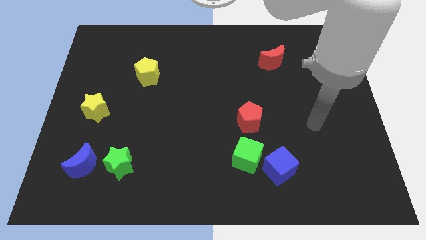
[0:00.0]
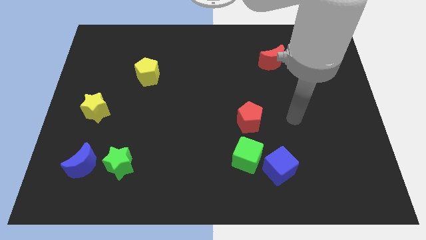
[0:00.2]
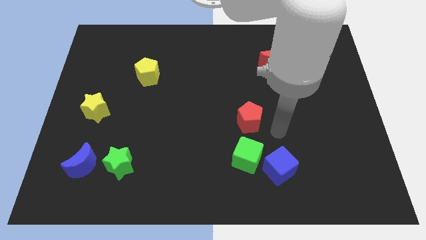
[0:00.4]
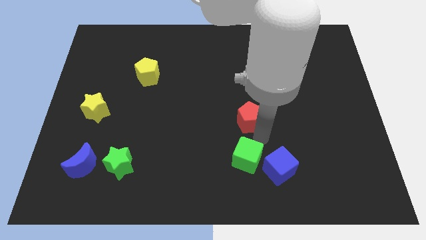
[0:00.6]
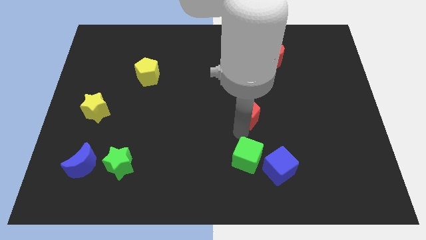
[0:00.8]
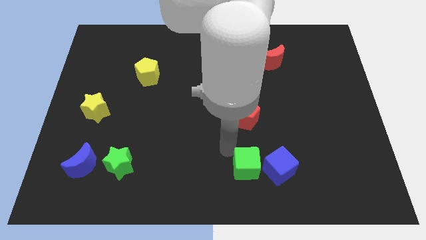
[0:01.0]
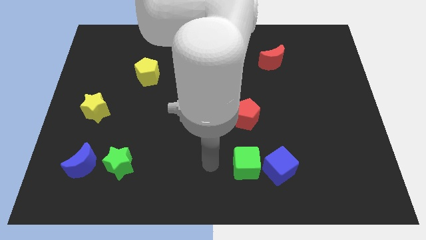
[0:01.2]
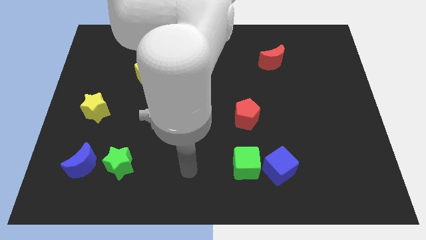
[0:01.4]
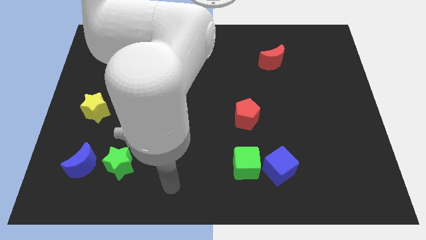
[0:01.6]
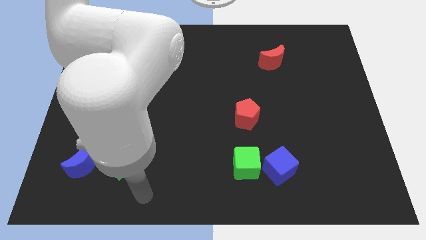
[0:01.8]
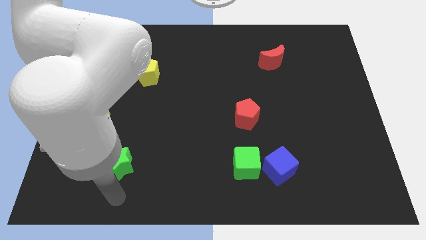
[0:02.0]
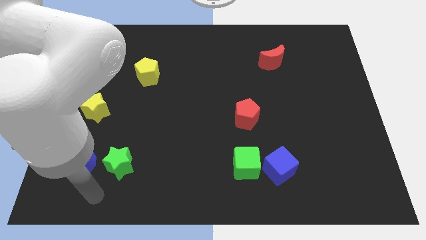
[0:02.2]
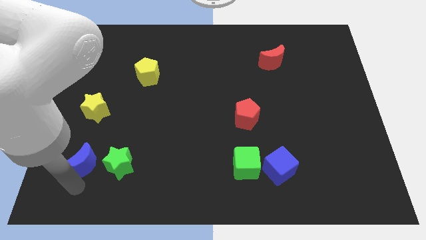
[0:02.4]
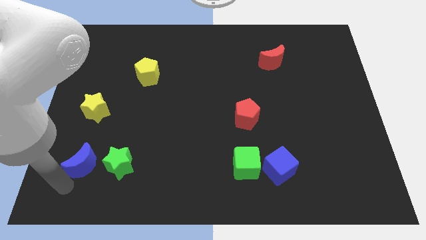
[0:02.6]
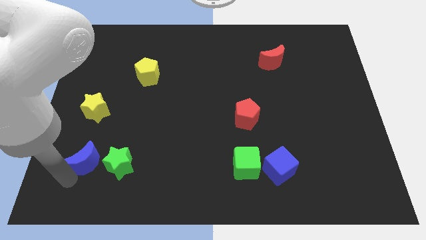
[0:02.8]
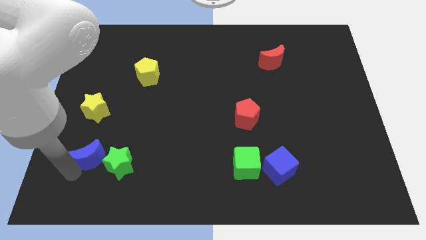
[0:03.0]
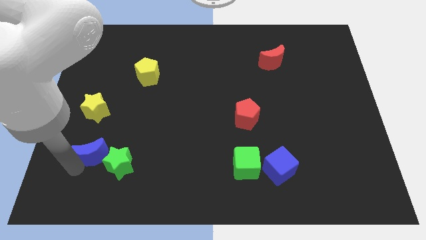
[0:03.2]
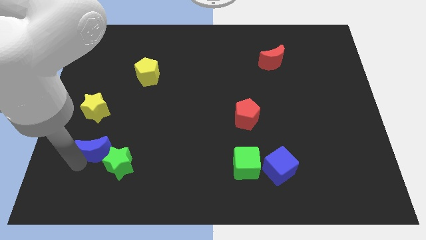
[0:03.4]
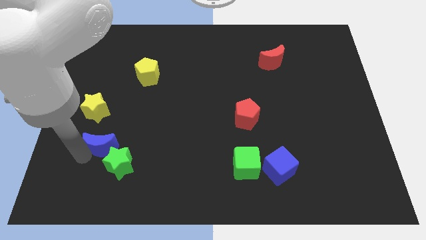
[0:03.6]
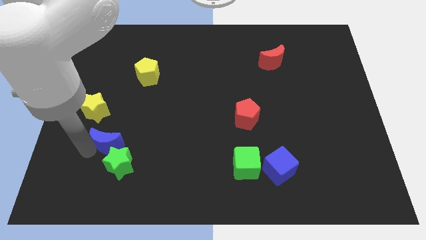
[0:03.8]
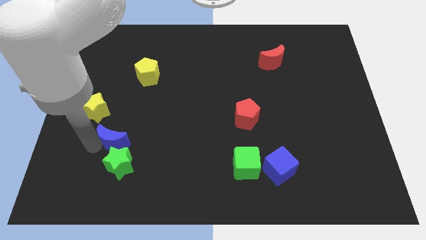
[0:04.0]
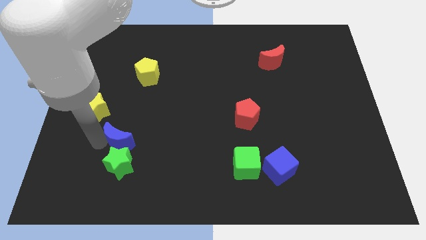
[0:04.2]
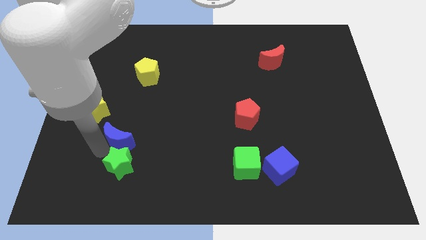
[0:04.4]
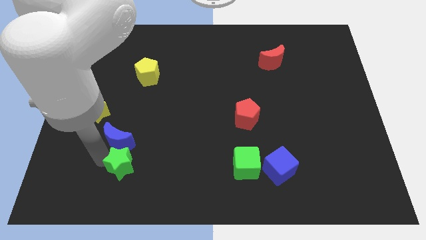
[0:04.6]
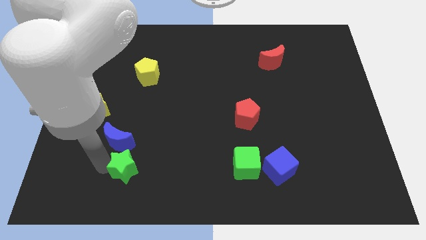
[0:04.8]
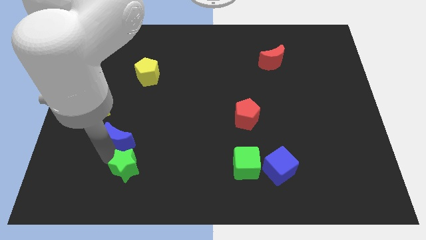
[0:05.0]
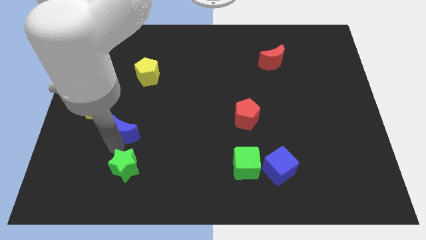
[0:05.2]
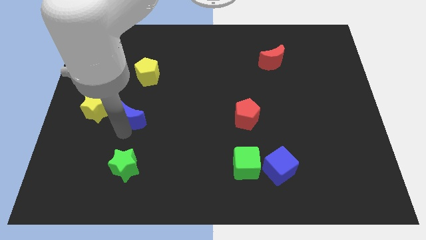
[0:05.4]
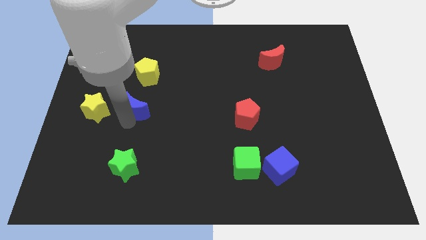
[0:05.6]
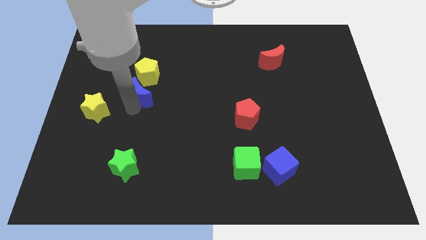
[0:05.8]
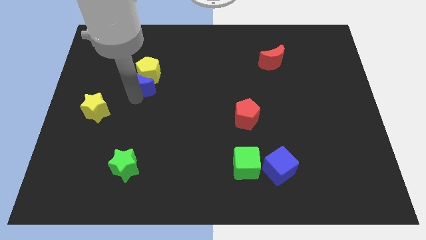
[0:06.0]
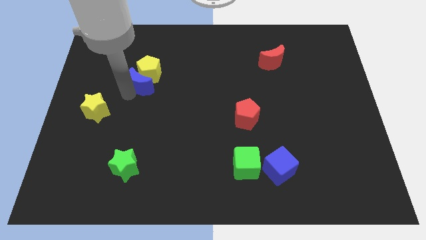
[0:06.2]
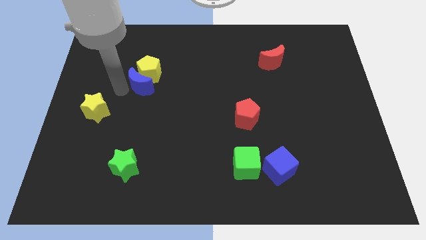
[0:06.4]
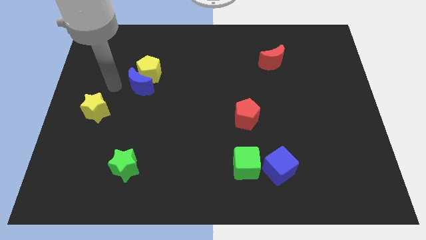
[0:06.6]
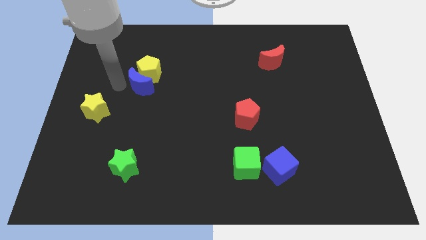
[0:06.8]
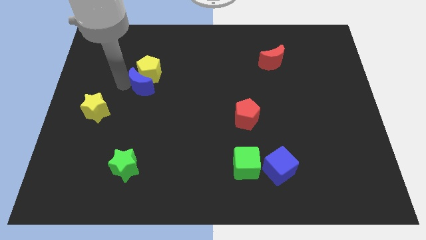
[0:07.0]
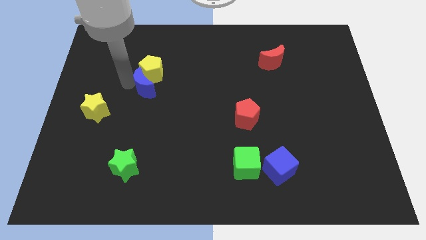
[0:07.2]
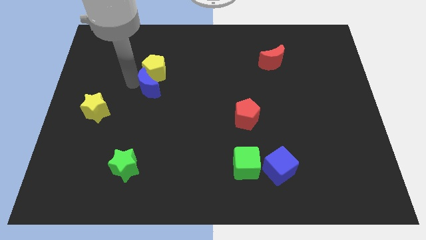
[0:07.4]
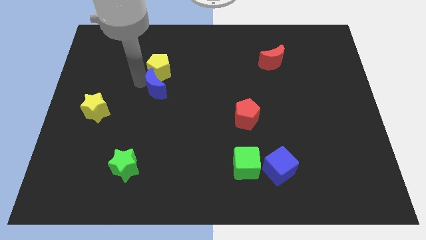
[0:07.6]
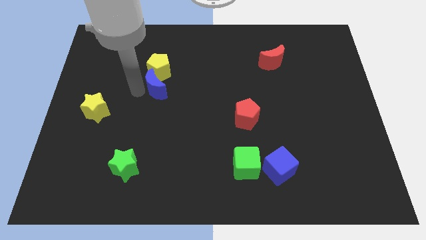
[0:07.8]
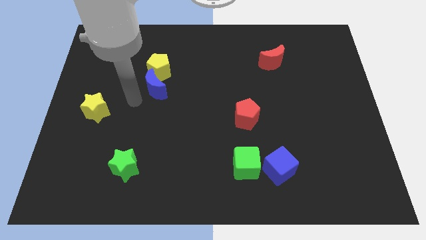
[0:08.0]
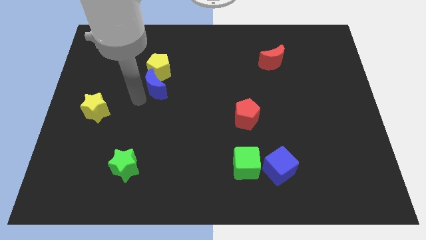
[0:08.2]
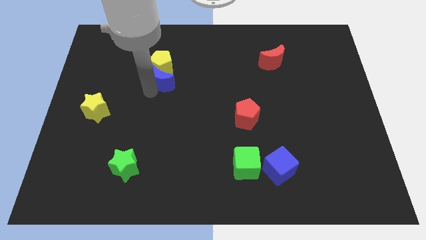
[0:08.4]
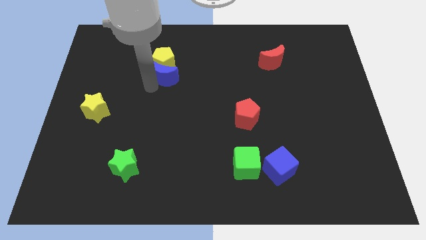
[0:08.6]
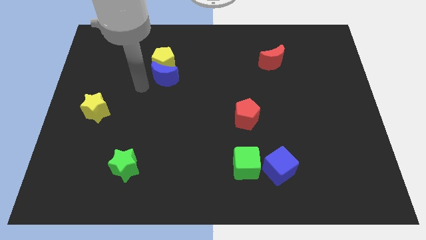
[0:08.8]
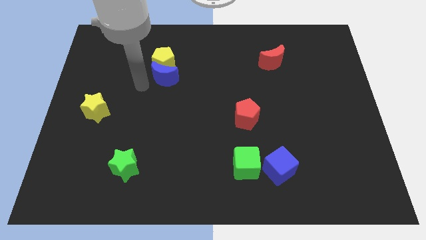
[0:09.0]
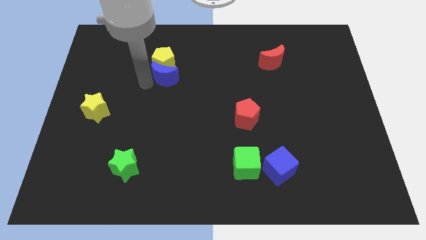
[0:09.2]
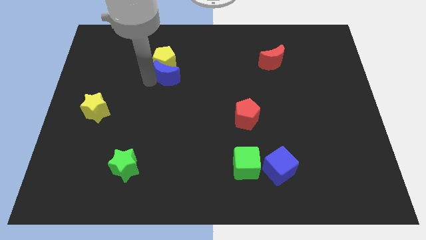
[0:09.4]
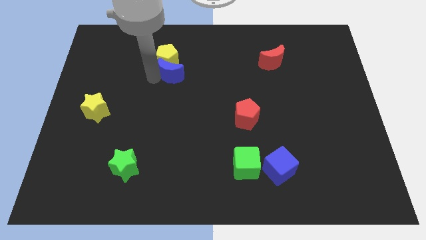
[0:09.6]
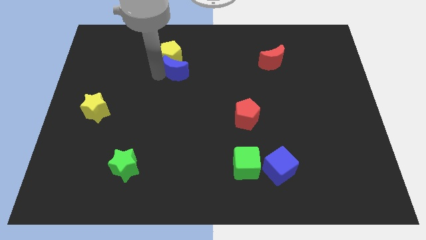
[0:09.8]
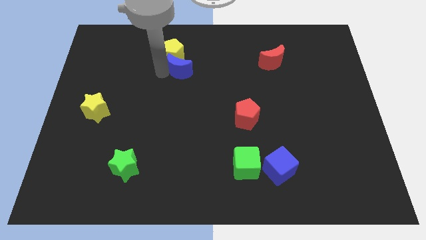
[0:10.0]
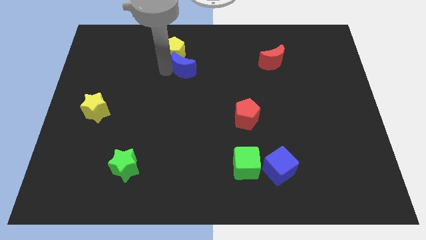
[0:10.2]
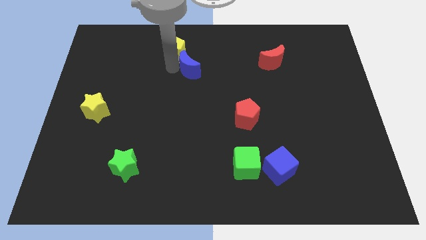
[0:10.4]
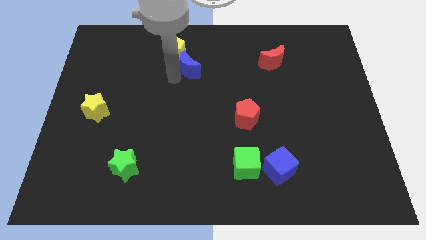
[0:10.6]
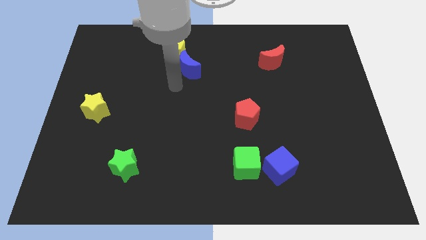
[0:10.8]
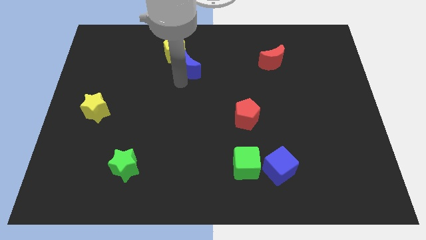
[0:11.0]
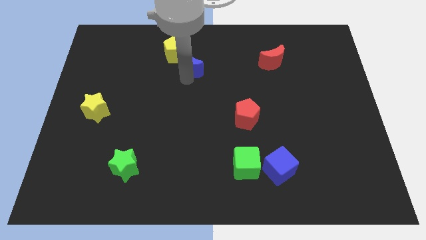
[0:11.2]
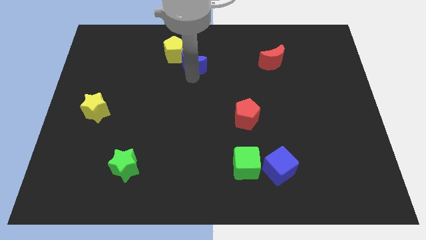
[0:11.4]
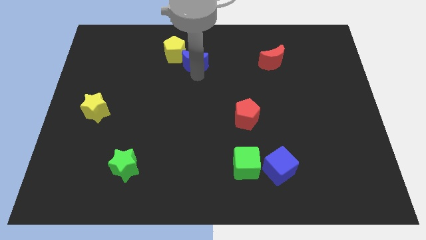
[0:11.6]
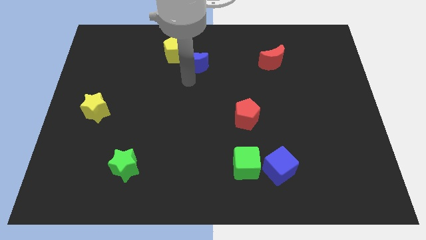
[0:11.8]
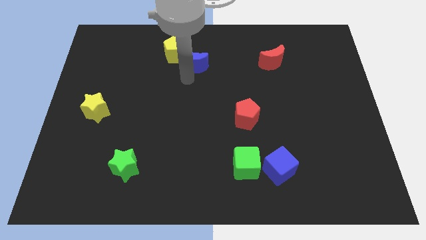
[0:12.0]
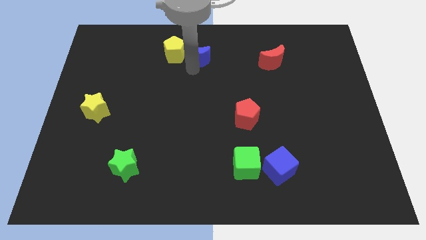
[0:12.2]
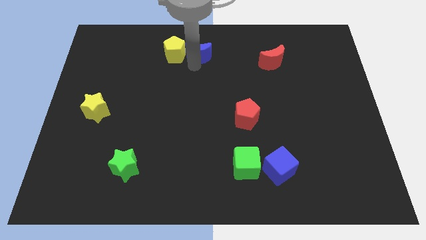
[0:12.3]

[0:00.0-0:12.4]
put the blue moon to the top side
